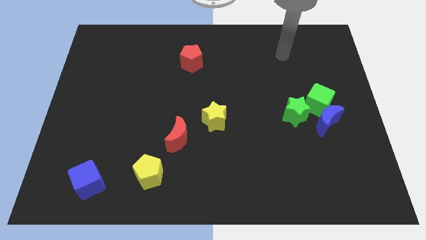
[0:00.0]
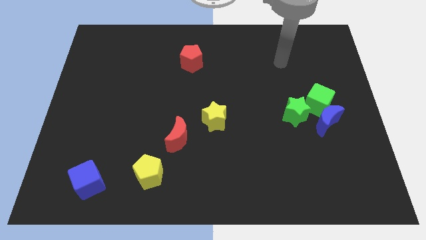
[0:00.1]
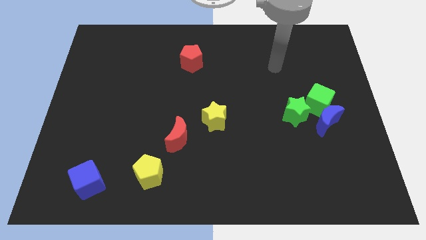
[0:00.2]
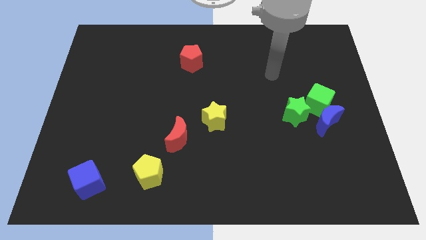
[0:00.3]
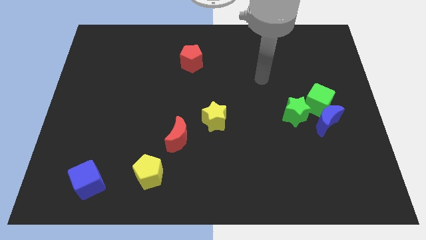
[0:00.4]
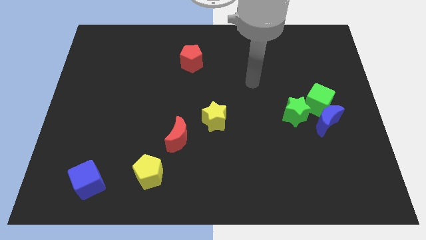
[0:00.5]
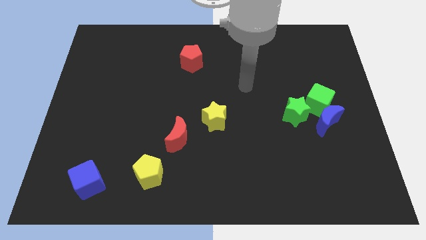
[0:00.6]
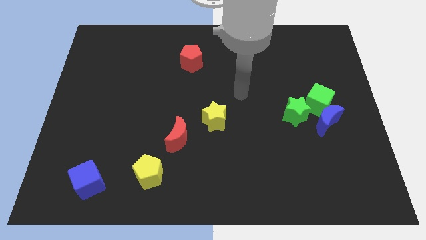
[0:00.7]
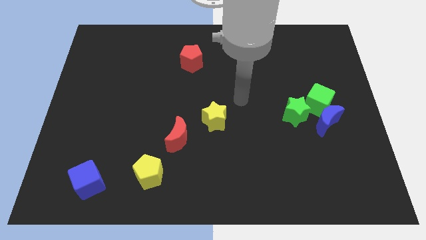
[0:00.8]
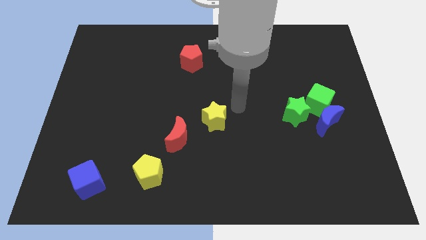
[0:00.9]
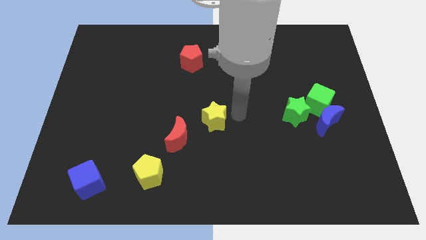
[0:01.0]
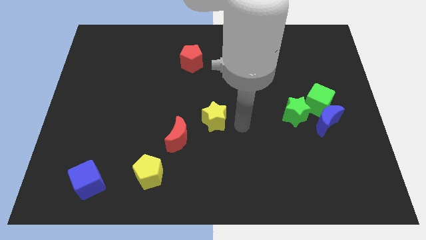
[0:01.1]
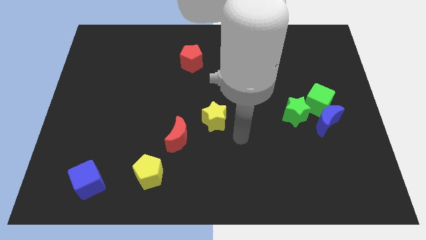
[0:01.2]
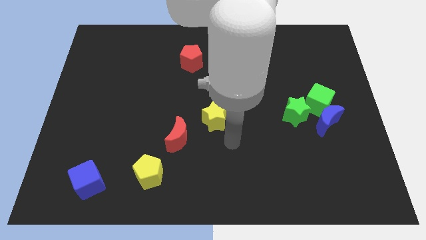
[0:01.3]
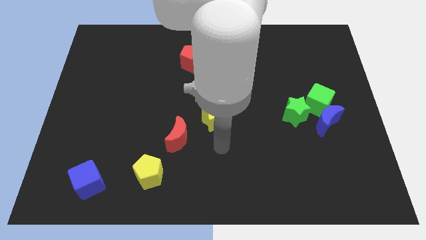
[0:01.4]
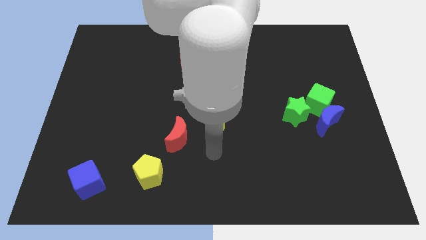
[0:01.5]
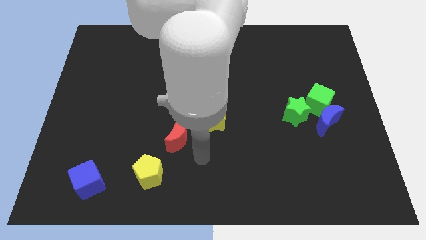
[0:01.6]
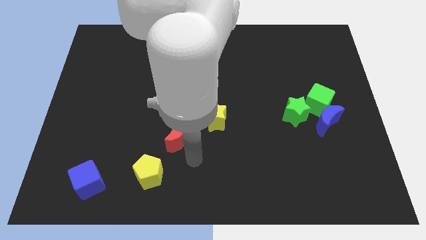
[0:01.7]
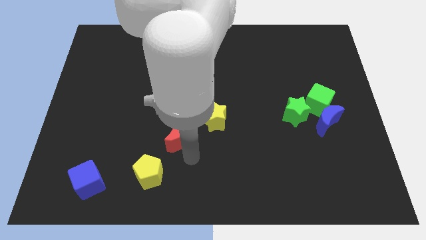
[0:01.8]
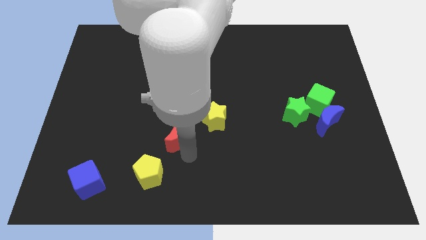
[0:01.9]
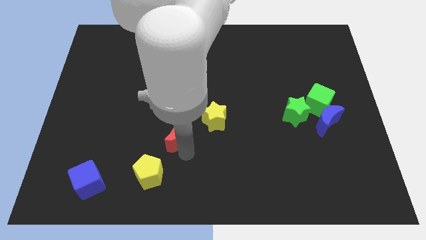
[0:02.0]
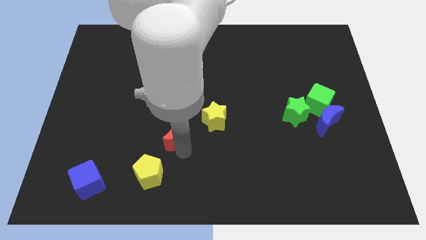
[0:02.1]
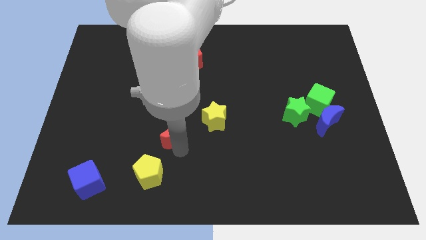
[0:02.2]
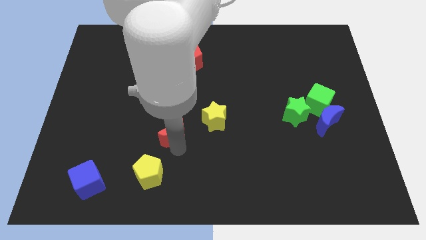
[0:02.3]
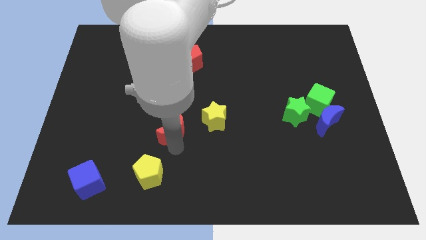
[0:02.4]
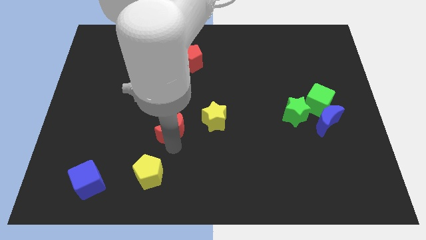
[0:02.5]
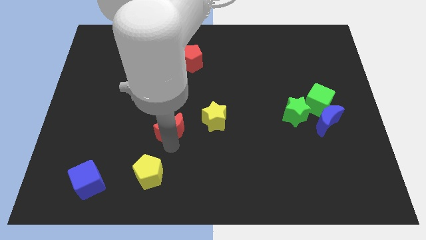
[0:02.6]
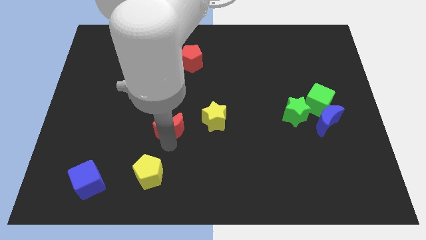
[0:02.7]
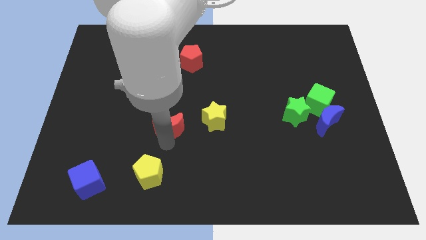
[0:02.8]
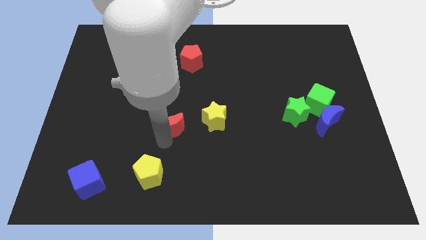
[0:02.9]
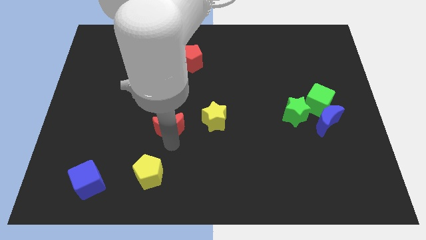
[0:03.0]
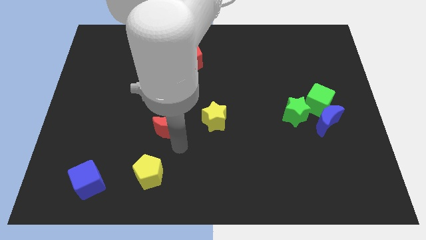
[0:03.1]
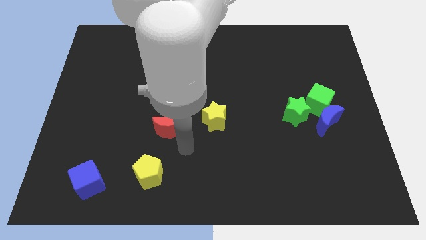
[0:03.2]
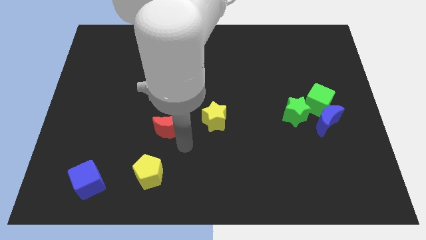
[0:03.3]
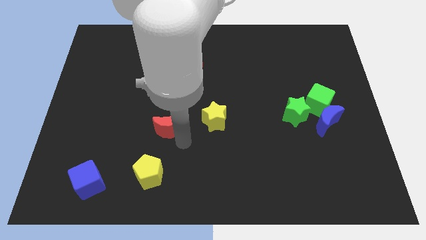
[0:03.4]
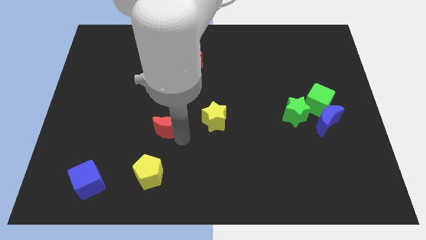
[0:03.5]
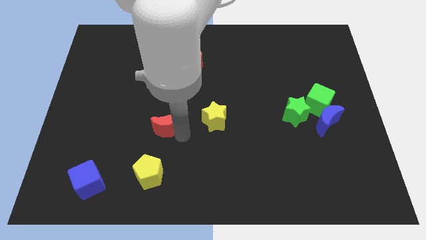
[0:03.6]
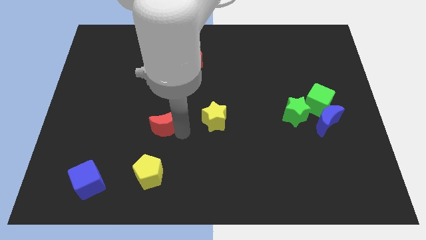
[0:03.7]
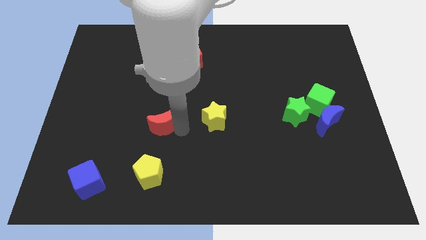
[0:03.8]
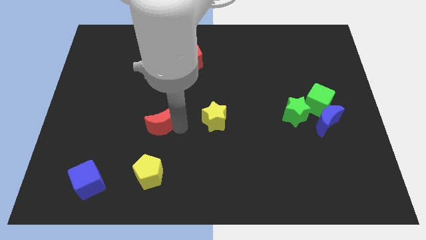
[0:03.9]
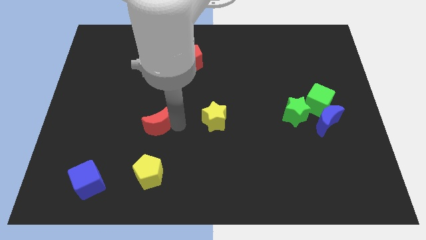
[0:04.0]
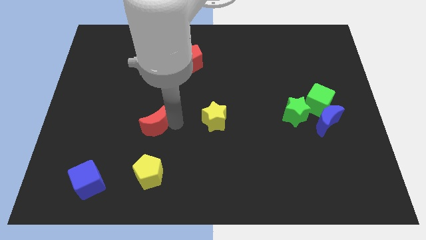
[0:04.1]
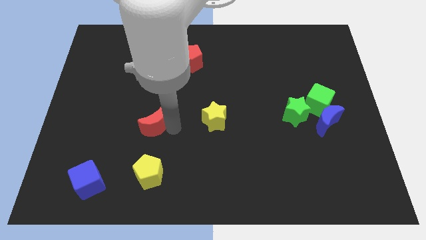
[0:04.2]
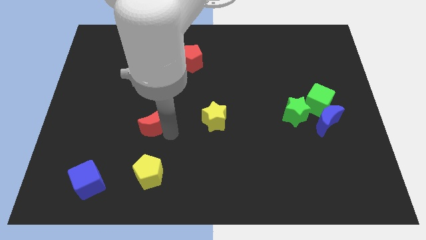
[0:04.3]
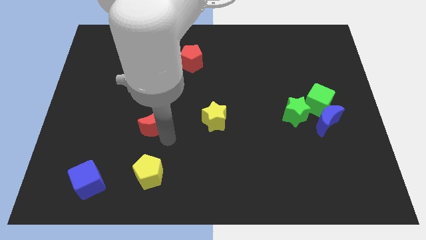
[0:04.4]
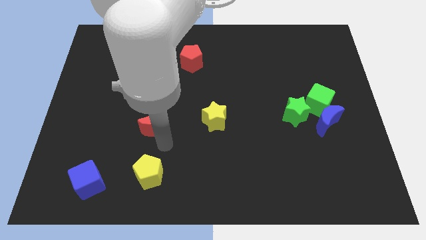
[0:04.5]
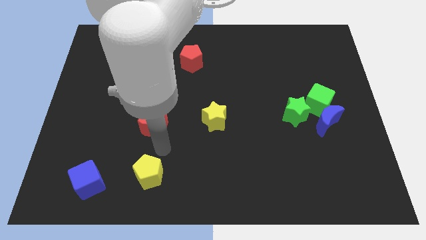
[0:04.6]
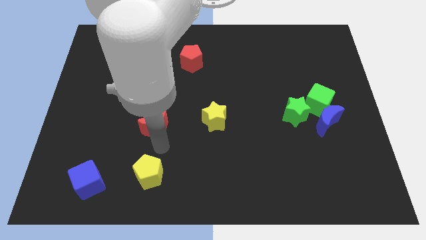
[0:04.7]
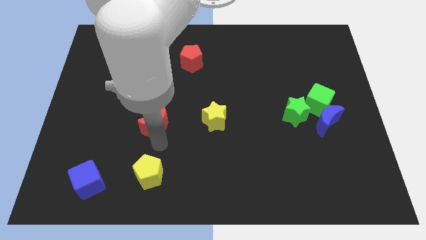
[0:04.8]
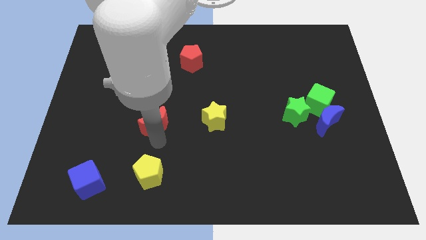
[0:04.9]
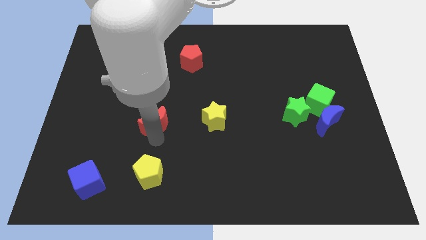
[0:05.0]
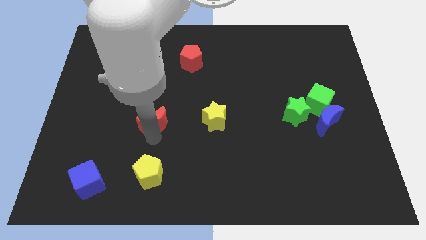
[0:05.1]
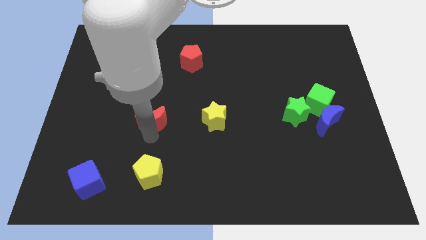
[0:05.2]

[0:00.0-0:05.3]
push the red moon a little upwards and left

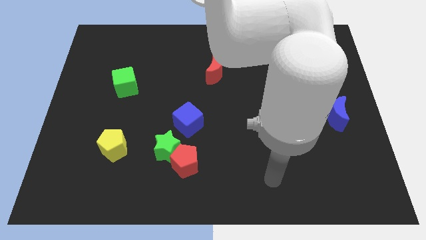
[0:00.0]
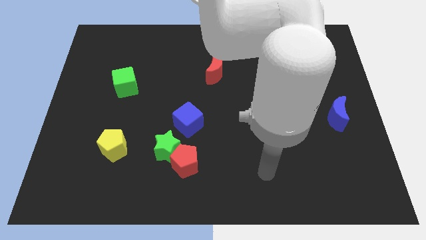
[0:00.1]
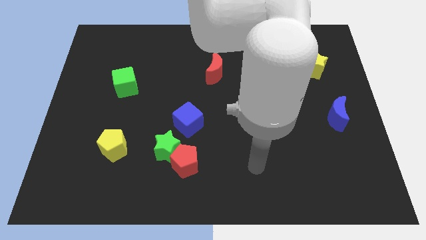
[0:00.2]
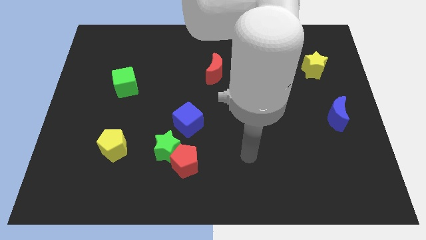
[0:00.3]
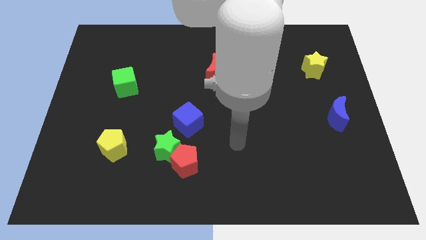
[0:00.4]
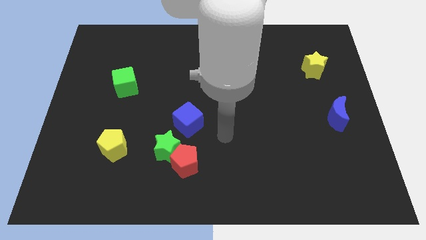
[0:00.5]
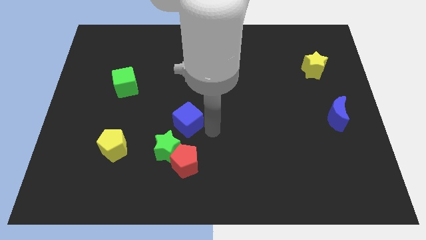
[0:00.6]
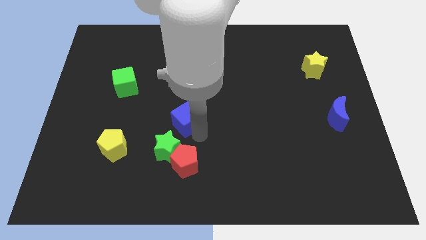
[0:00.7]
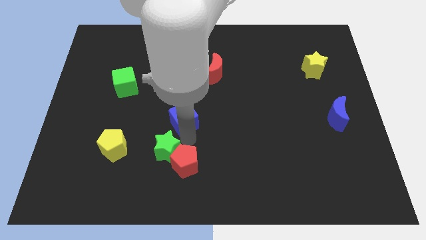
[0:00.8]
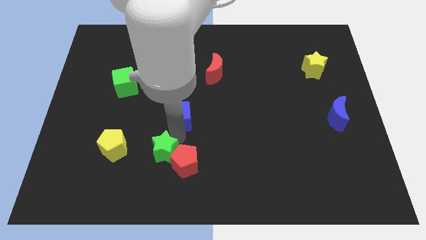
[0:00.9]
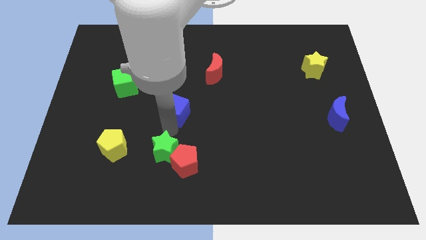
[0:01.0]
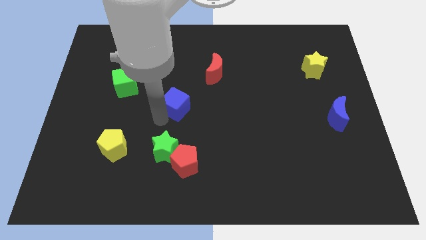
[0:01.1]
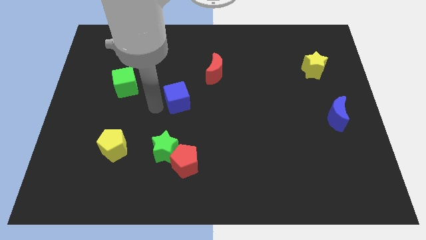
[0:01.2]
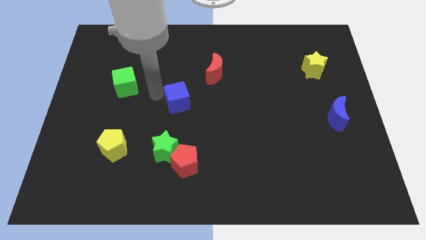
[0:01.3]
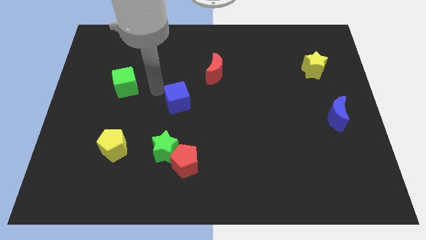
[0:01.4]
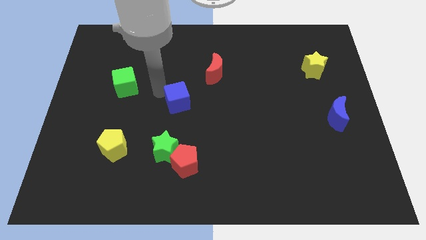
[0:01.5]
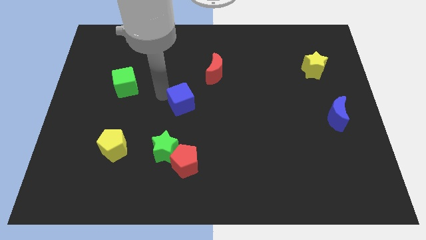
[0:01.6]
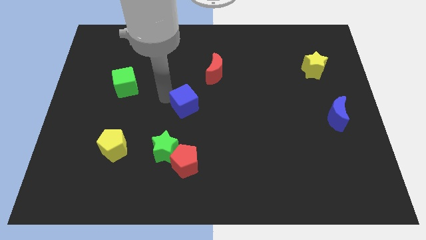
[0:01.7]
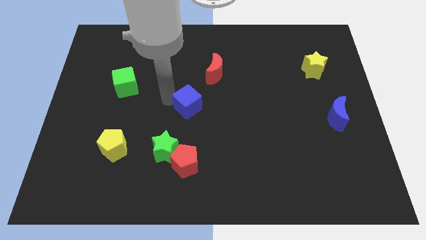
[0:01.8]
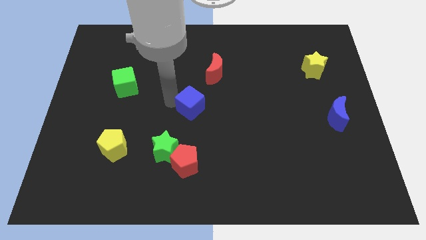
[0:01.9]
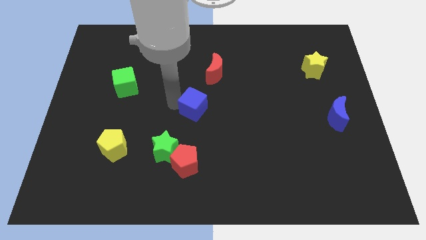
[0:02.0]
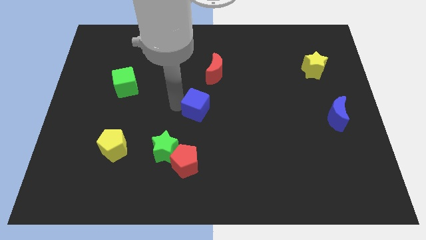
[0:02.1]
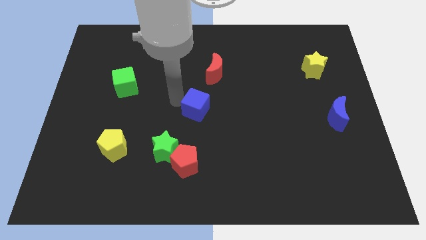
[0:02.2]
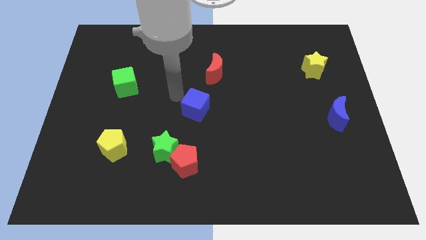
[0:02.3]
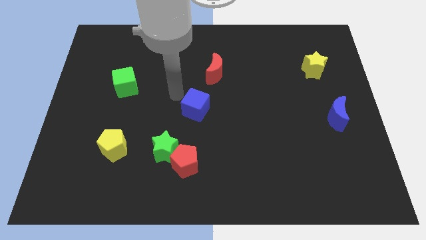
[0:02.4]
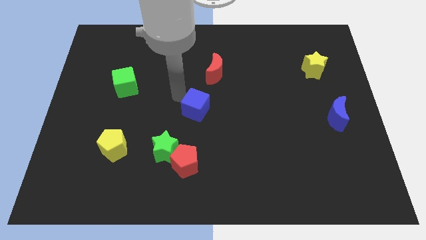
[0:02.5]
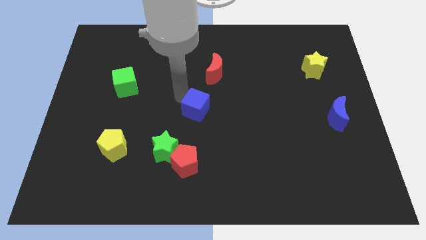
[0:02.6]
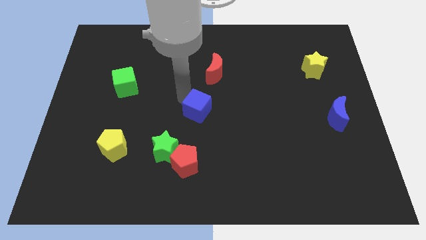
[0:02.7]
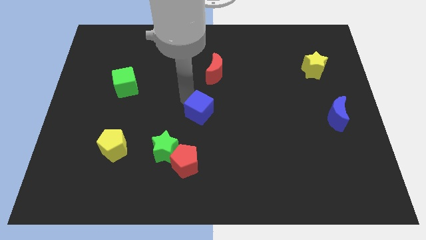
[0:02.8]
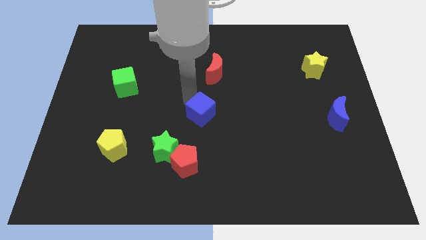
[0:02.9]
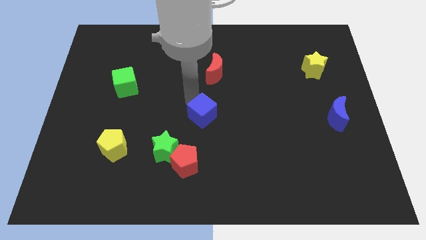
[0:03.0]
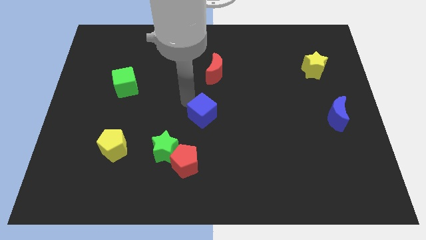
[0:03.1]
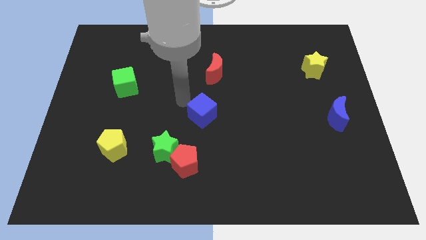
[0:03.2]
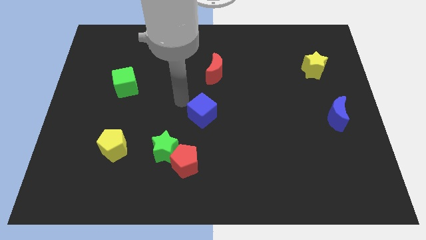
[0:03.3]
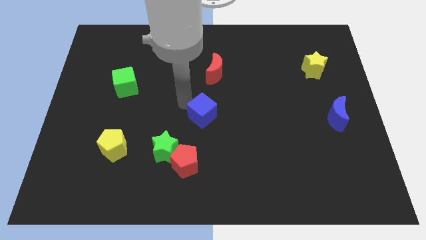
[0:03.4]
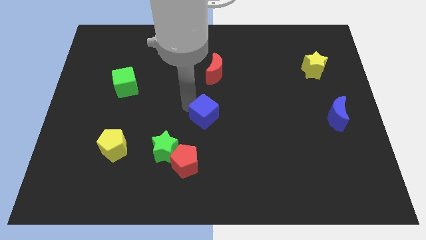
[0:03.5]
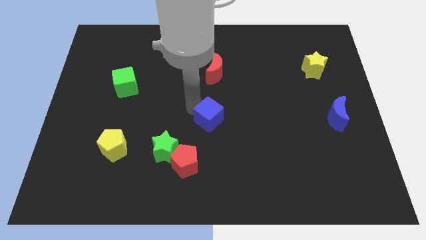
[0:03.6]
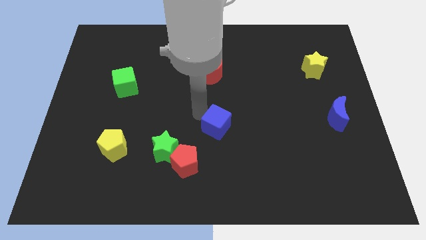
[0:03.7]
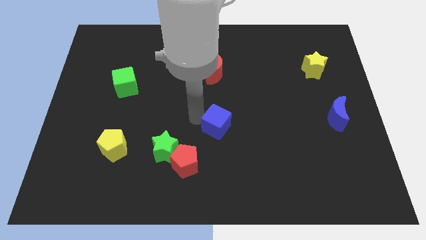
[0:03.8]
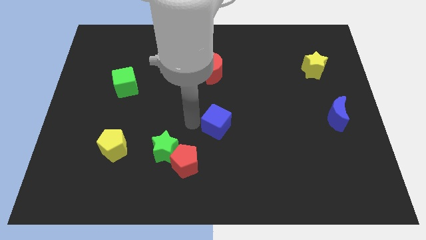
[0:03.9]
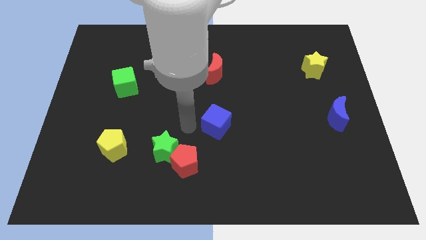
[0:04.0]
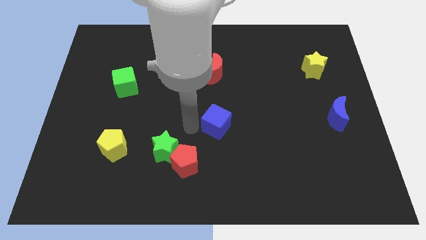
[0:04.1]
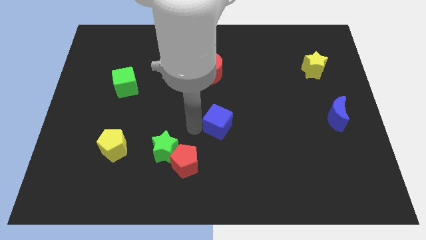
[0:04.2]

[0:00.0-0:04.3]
slide the blue cube somewhat to the right
